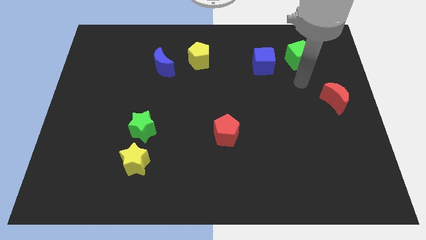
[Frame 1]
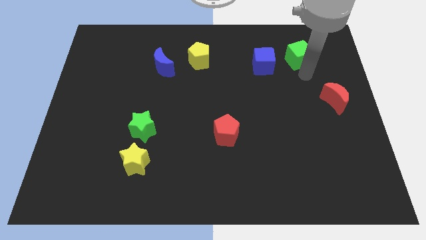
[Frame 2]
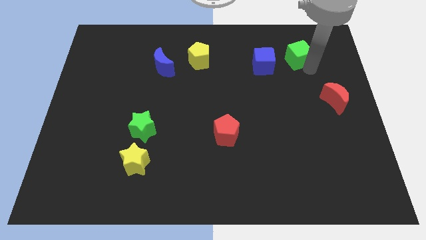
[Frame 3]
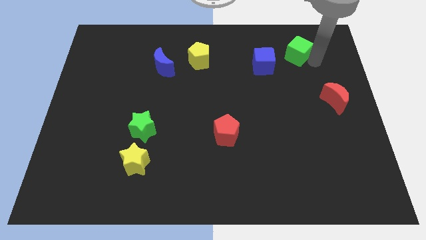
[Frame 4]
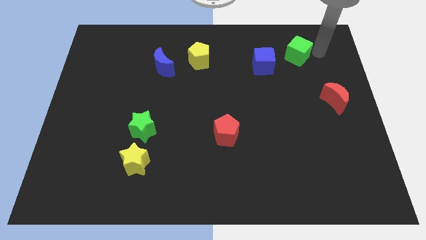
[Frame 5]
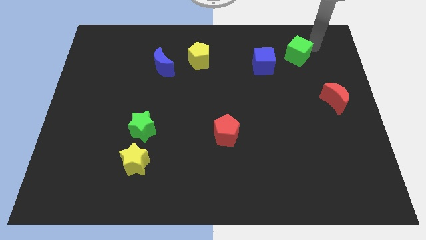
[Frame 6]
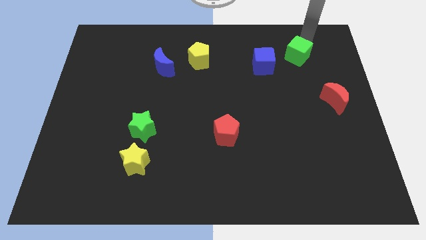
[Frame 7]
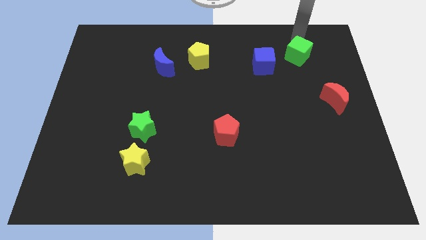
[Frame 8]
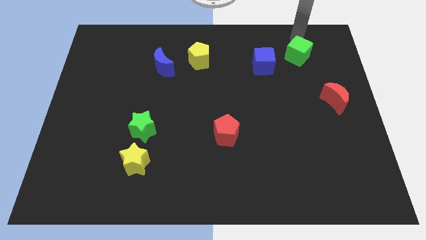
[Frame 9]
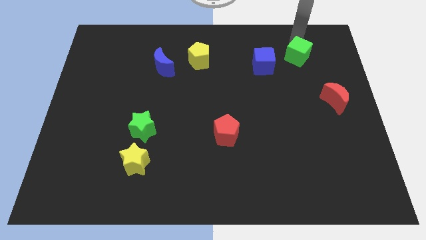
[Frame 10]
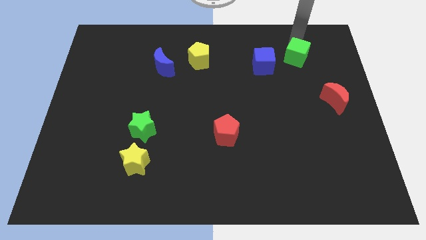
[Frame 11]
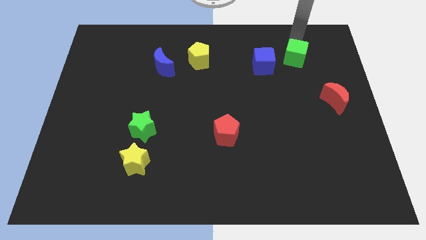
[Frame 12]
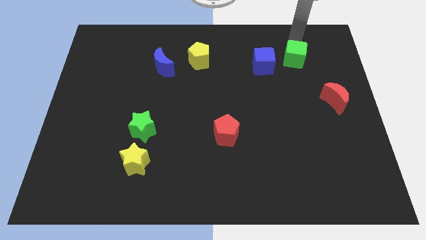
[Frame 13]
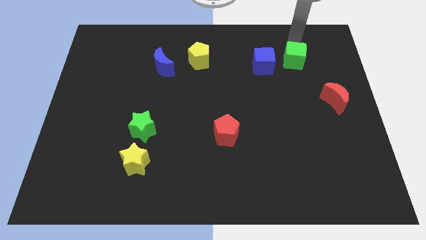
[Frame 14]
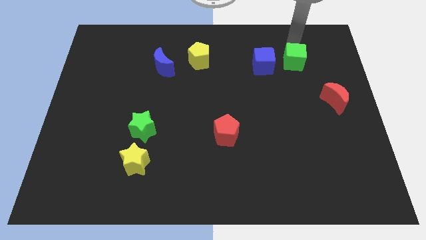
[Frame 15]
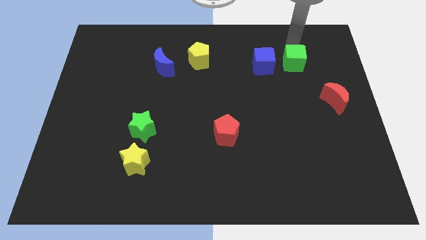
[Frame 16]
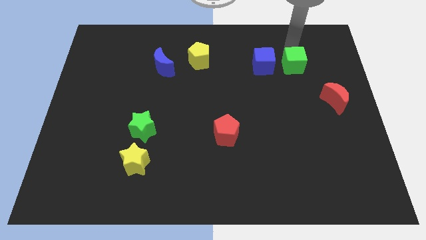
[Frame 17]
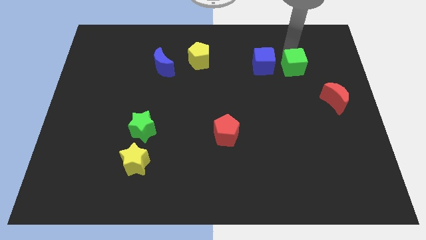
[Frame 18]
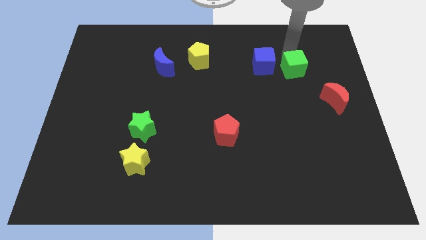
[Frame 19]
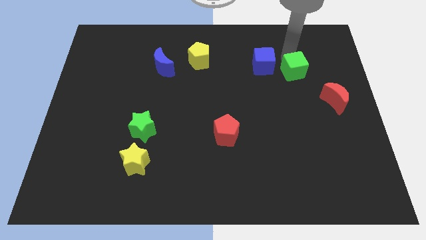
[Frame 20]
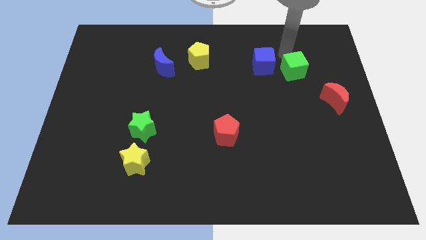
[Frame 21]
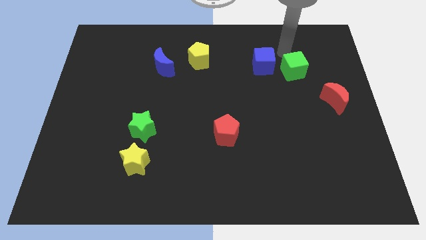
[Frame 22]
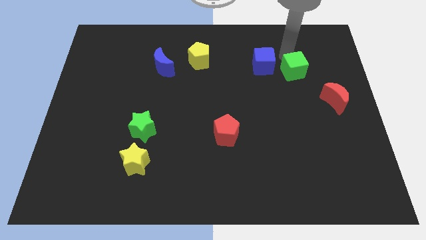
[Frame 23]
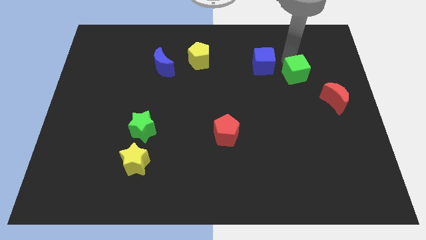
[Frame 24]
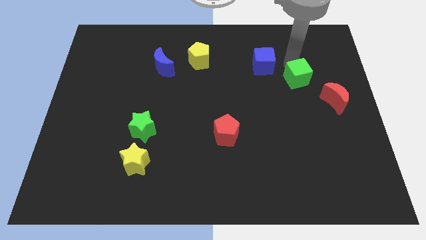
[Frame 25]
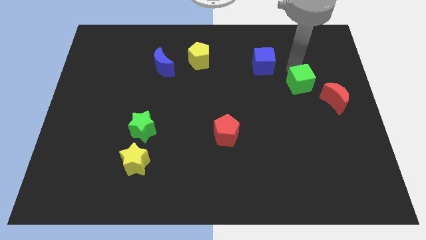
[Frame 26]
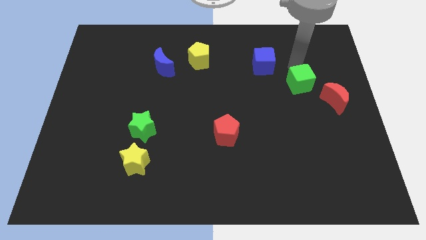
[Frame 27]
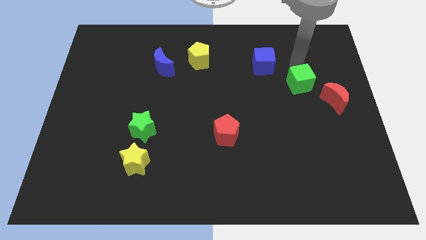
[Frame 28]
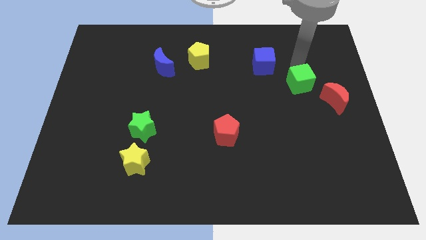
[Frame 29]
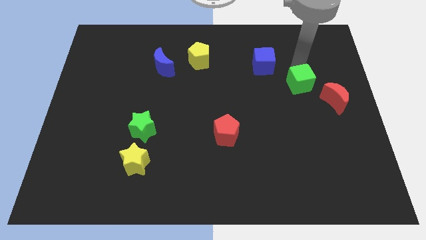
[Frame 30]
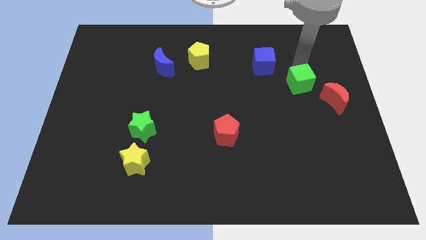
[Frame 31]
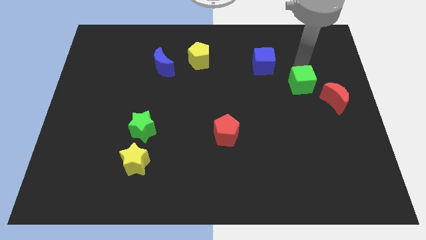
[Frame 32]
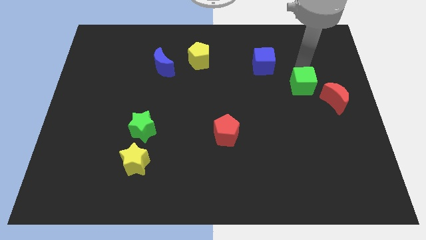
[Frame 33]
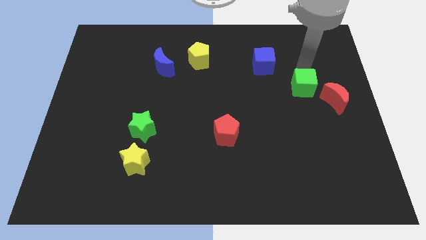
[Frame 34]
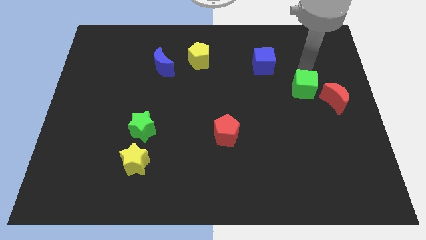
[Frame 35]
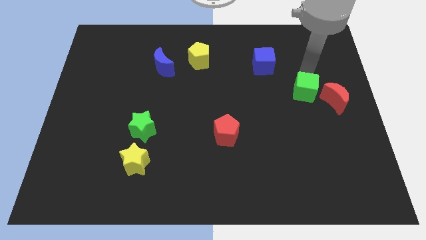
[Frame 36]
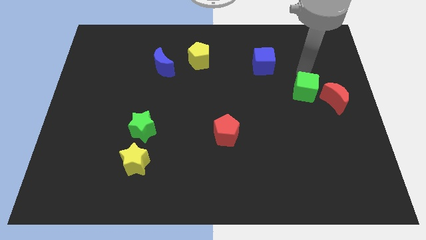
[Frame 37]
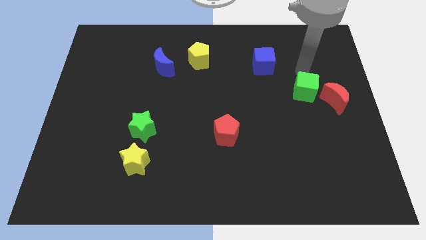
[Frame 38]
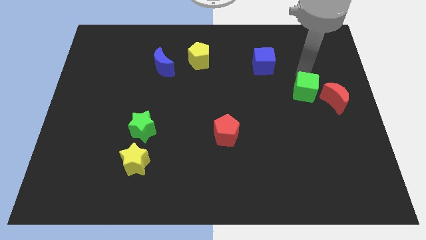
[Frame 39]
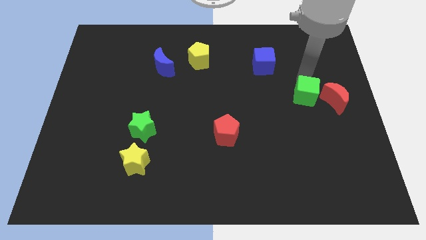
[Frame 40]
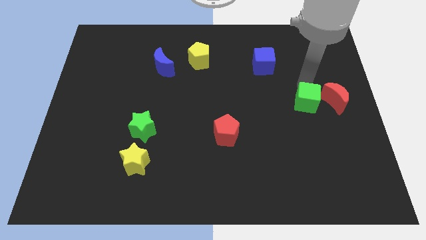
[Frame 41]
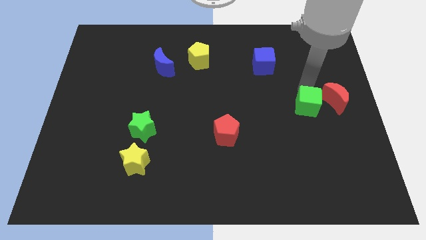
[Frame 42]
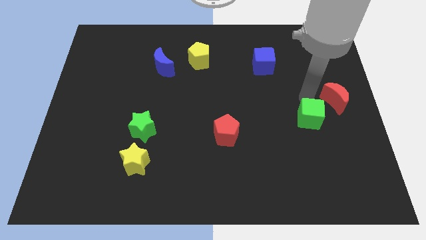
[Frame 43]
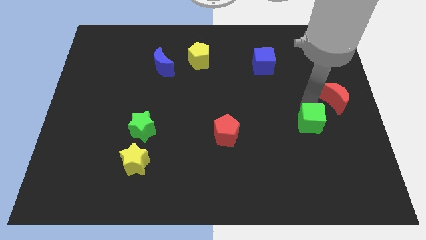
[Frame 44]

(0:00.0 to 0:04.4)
move the green cube downwards

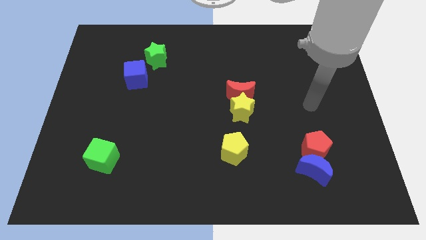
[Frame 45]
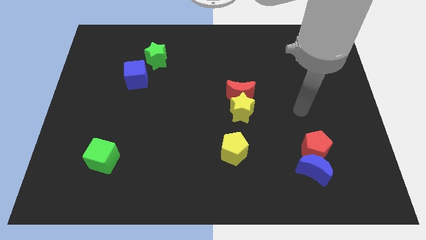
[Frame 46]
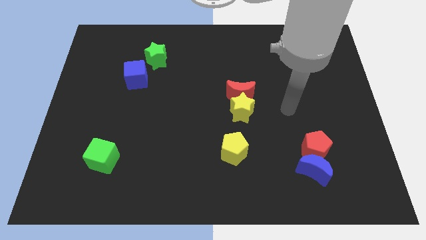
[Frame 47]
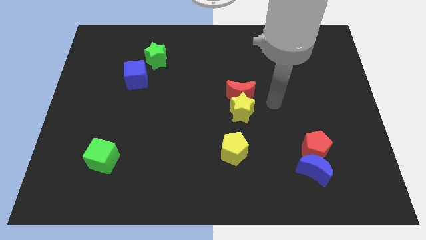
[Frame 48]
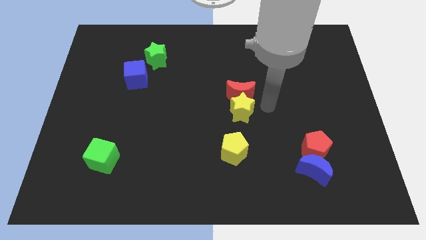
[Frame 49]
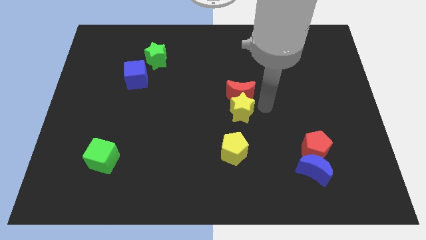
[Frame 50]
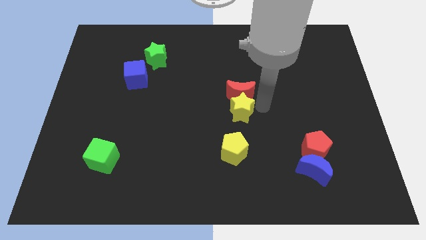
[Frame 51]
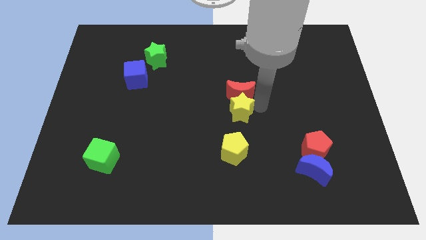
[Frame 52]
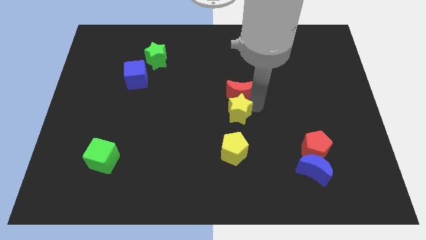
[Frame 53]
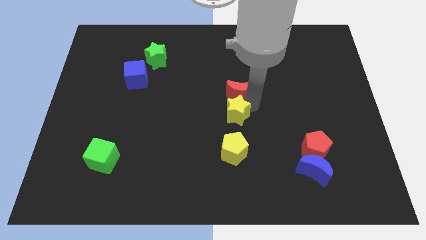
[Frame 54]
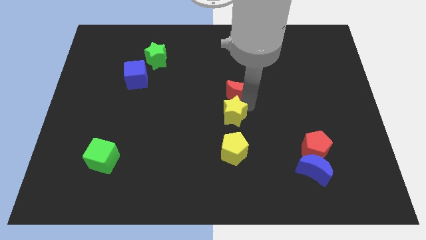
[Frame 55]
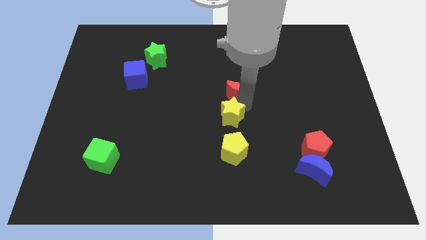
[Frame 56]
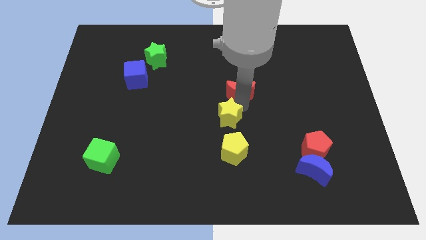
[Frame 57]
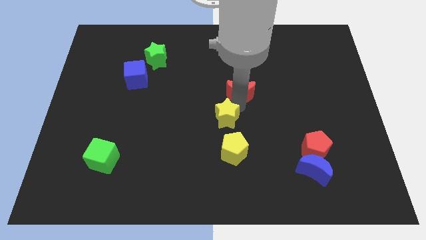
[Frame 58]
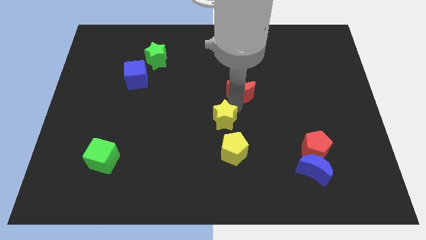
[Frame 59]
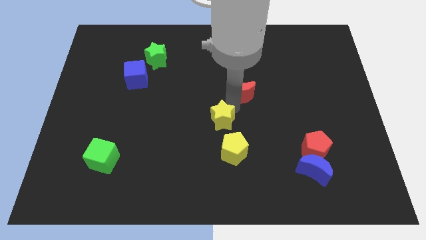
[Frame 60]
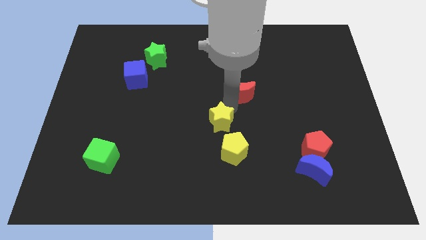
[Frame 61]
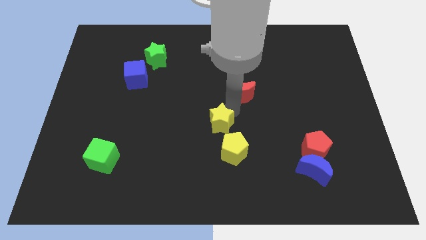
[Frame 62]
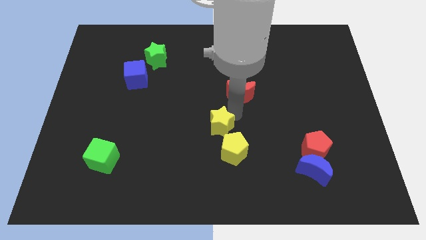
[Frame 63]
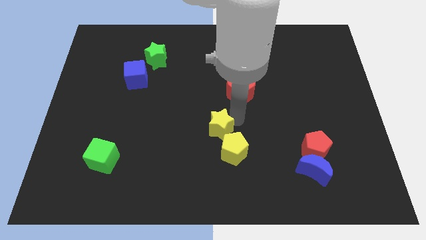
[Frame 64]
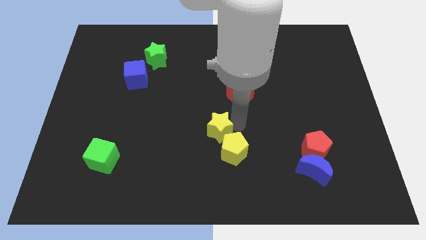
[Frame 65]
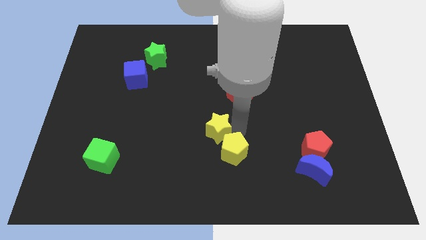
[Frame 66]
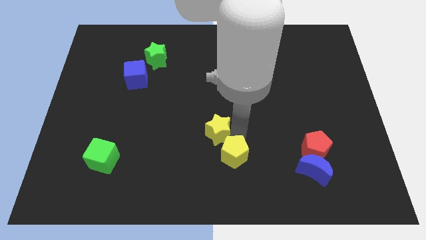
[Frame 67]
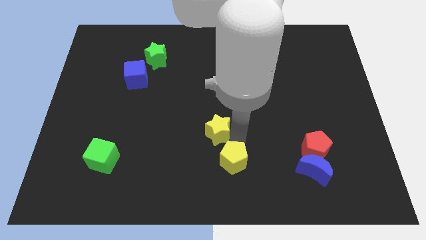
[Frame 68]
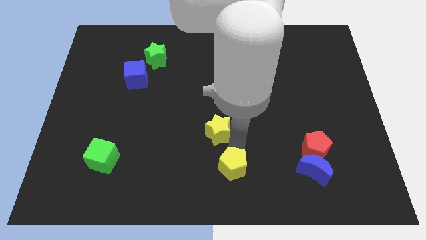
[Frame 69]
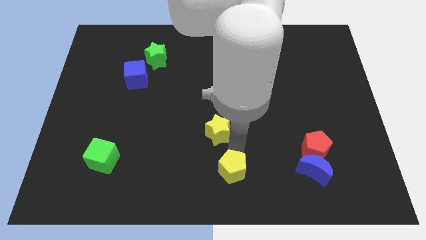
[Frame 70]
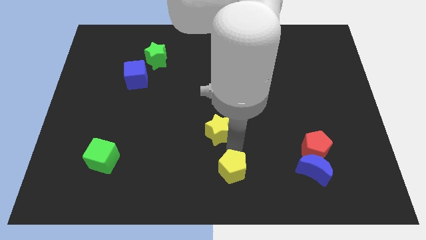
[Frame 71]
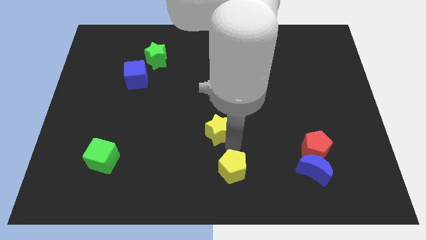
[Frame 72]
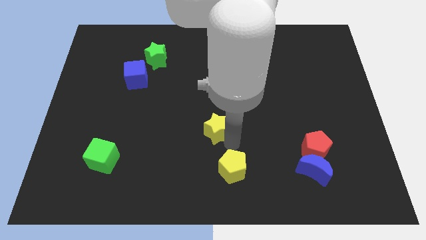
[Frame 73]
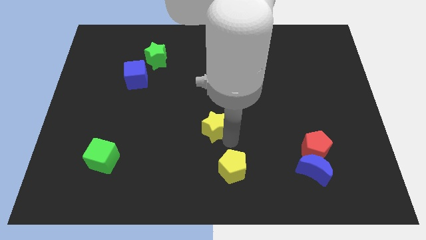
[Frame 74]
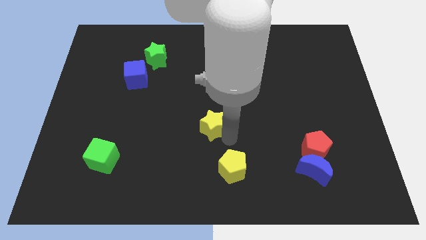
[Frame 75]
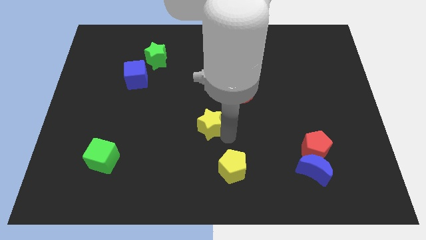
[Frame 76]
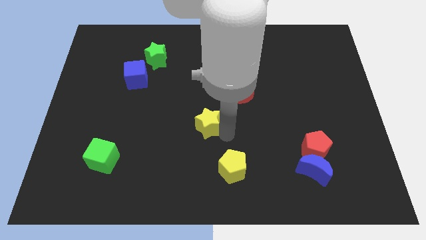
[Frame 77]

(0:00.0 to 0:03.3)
slightly push the yellow star to the left
